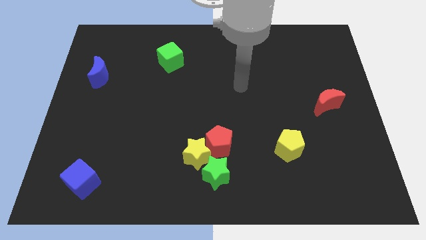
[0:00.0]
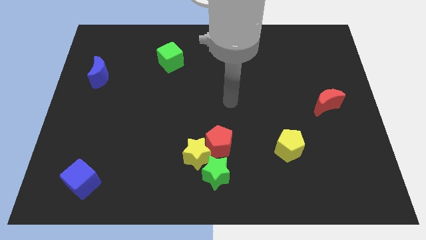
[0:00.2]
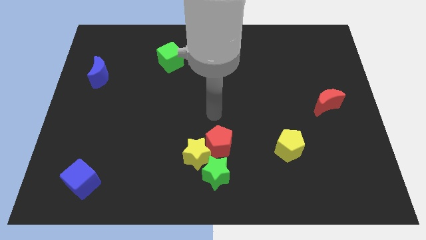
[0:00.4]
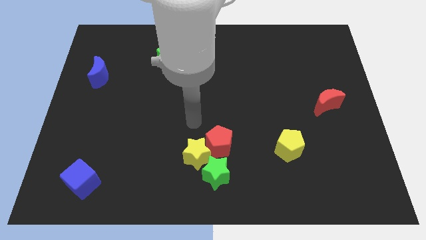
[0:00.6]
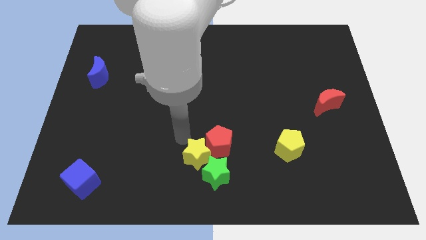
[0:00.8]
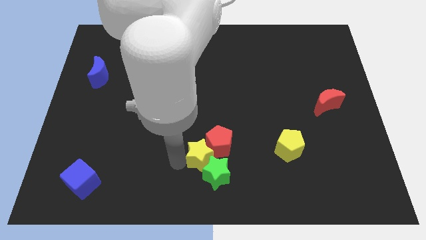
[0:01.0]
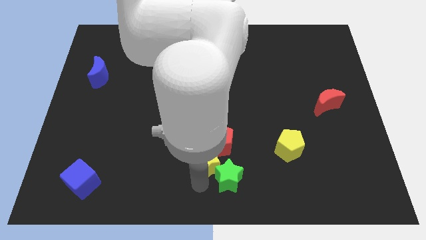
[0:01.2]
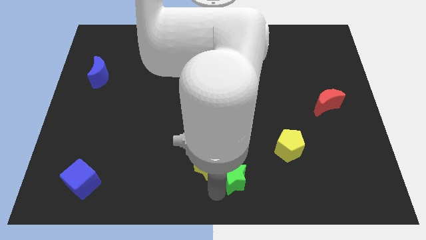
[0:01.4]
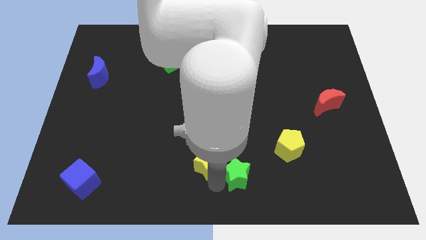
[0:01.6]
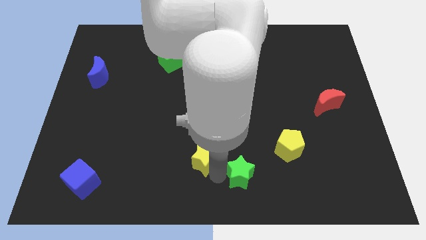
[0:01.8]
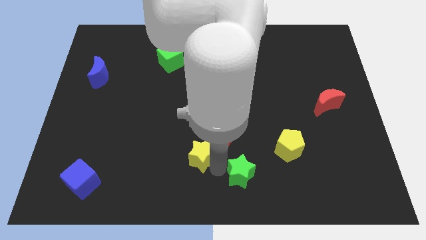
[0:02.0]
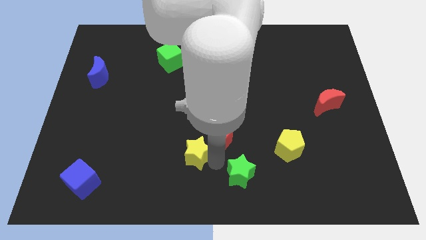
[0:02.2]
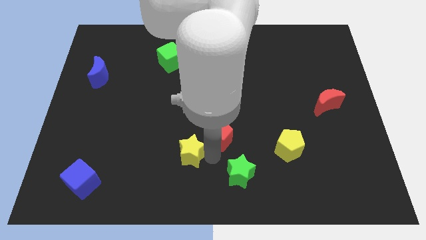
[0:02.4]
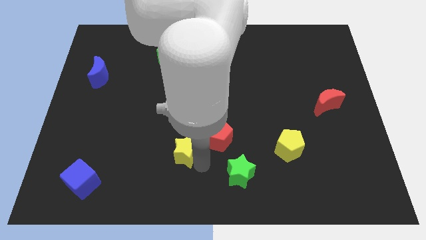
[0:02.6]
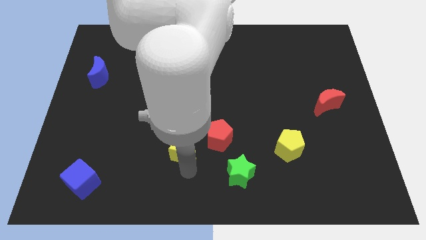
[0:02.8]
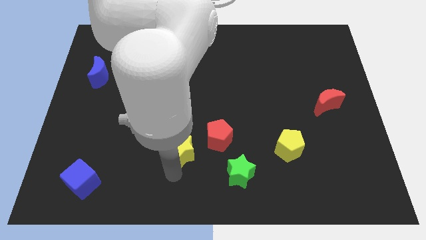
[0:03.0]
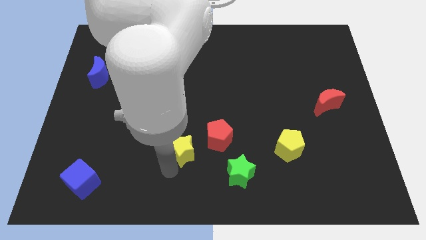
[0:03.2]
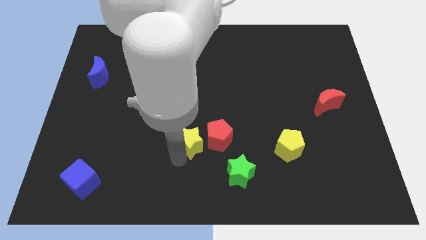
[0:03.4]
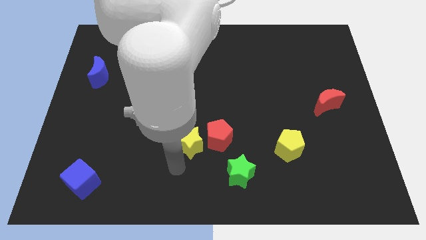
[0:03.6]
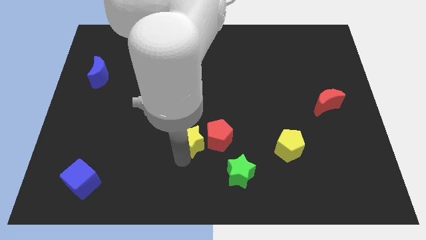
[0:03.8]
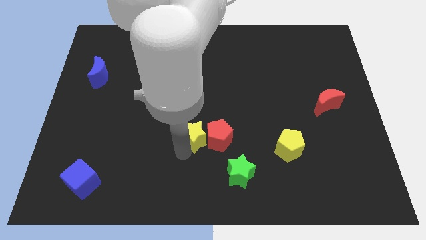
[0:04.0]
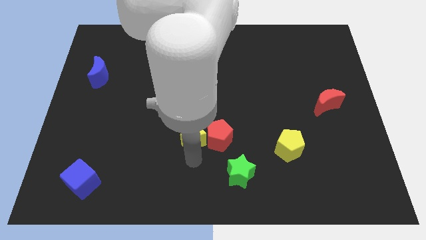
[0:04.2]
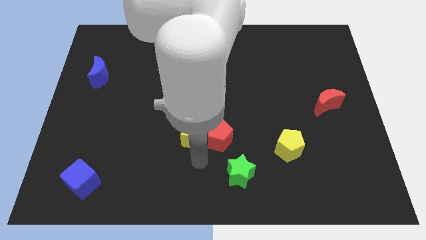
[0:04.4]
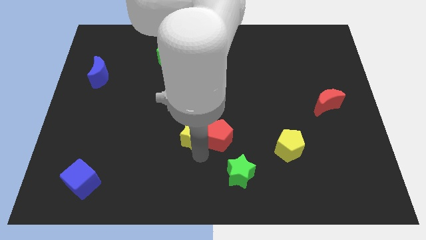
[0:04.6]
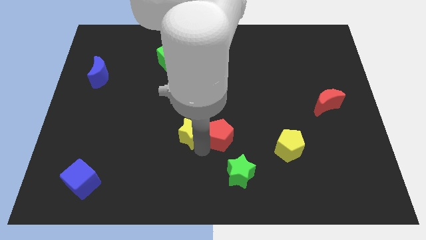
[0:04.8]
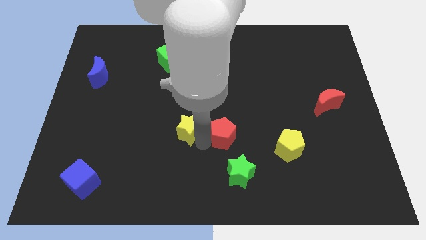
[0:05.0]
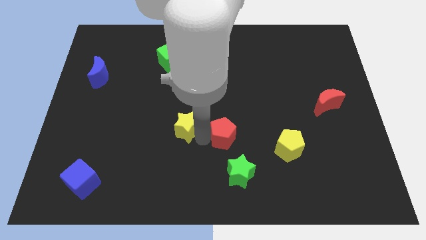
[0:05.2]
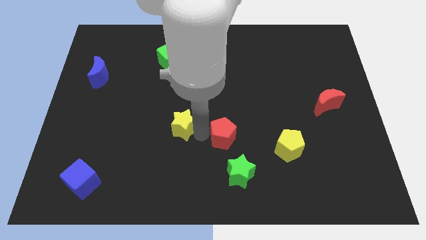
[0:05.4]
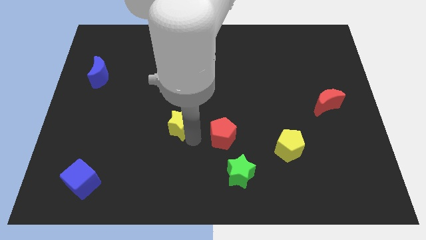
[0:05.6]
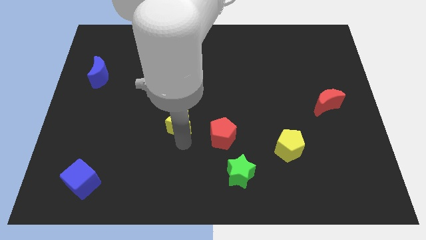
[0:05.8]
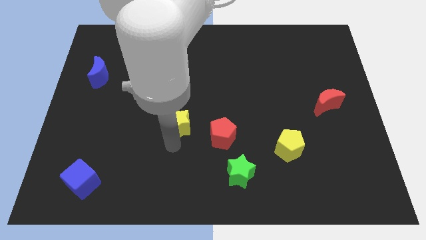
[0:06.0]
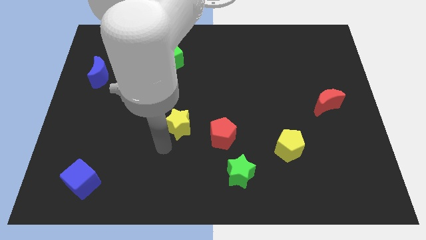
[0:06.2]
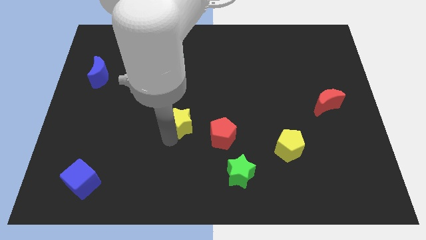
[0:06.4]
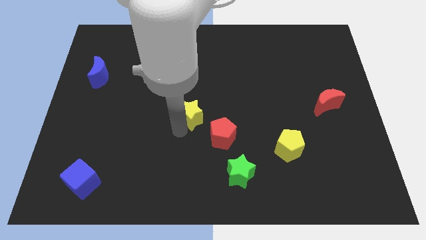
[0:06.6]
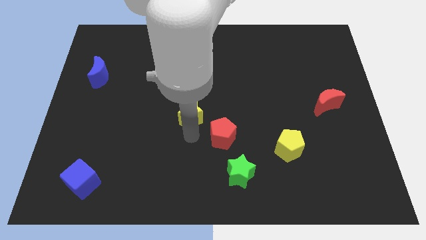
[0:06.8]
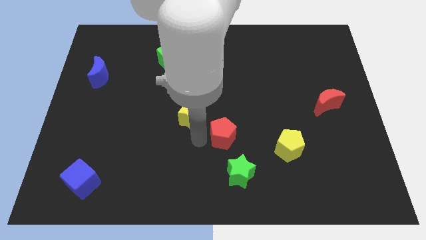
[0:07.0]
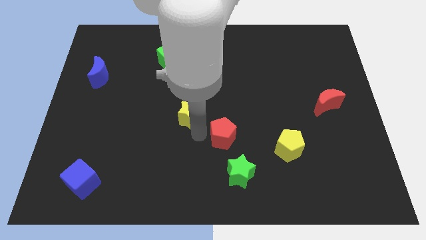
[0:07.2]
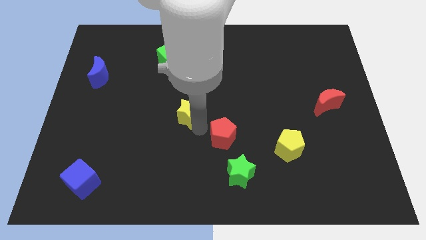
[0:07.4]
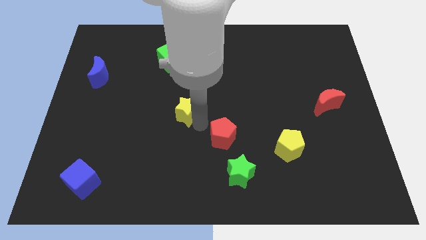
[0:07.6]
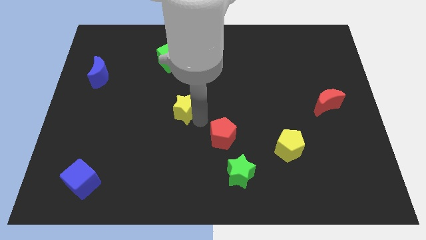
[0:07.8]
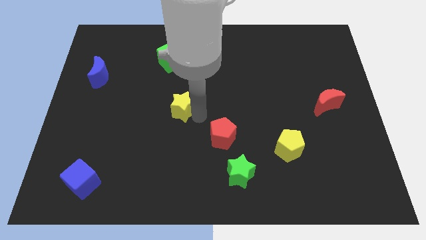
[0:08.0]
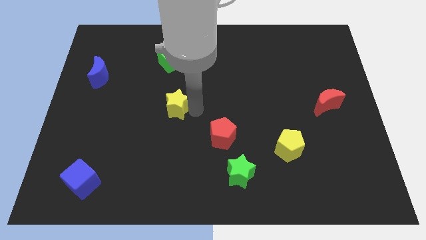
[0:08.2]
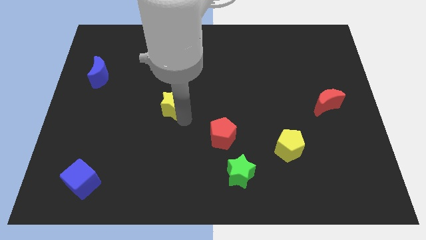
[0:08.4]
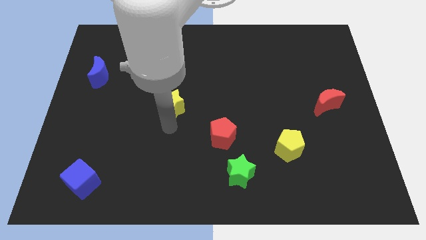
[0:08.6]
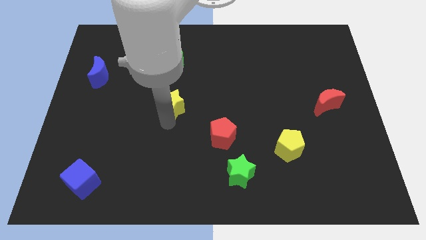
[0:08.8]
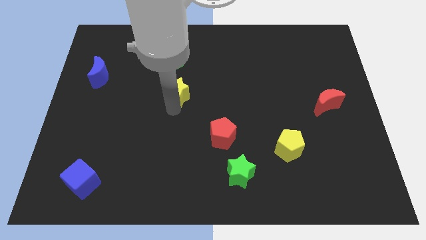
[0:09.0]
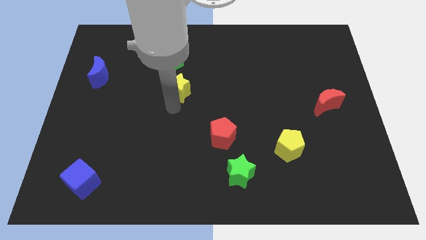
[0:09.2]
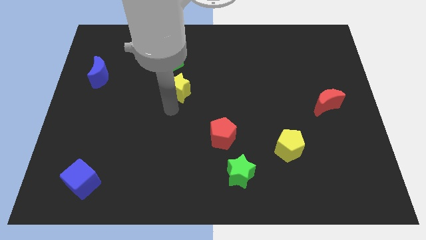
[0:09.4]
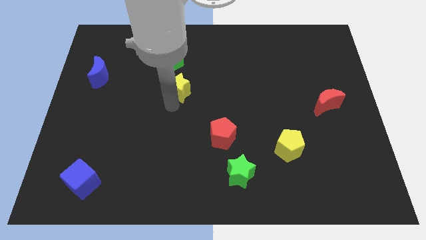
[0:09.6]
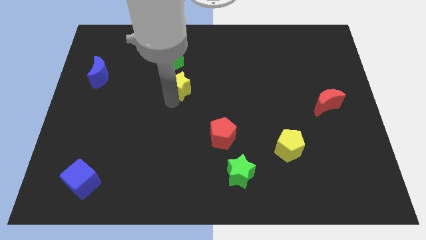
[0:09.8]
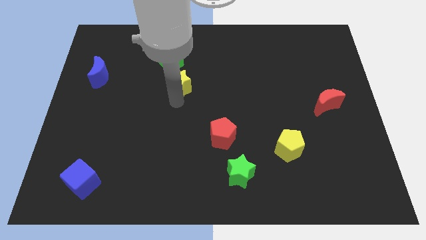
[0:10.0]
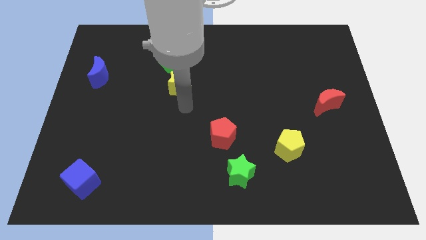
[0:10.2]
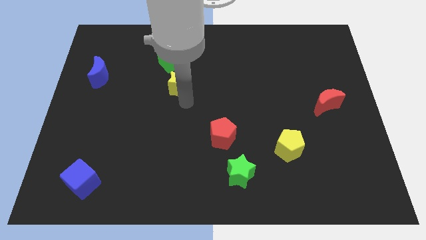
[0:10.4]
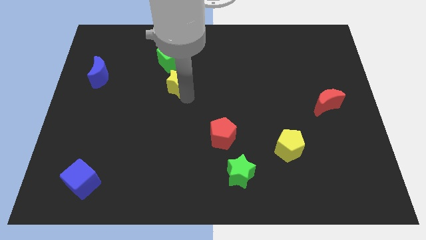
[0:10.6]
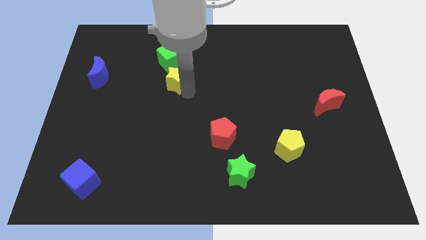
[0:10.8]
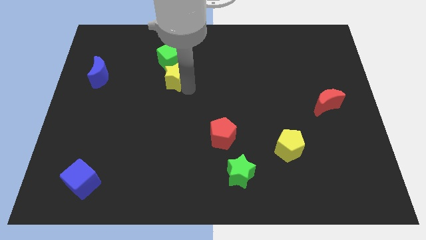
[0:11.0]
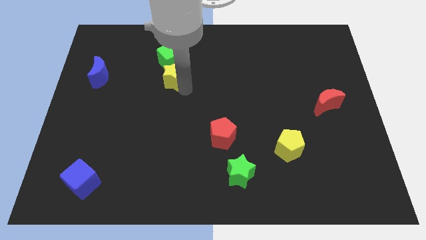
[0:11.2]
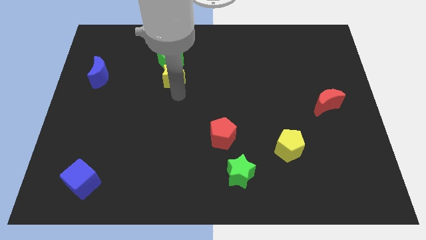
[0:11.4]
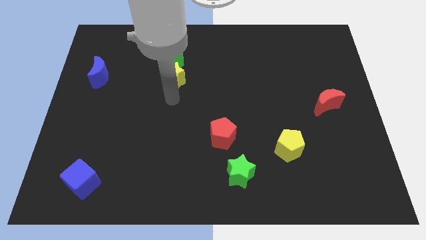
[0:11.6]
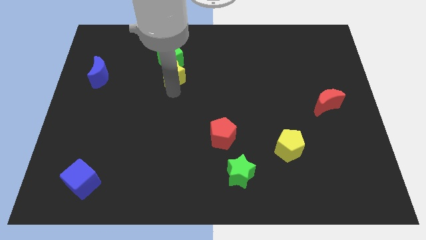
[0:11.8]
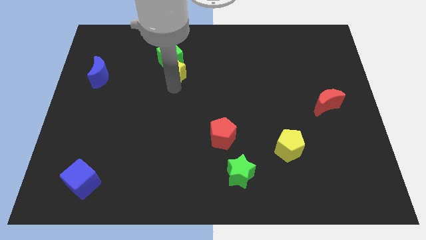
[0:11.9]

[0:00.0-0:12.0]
slide the yellow star towards the green cube

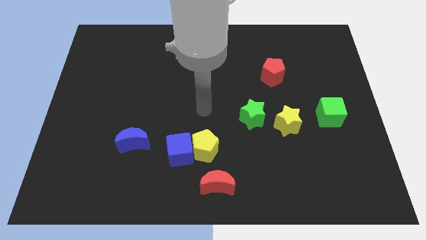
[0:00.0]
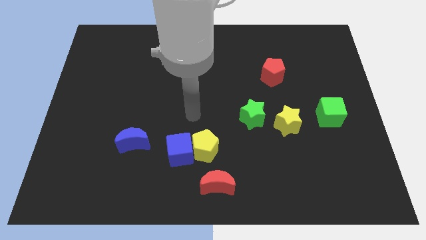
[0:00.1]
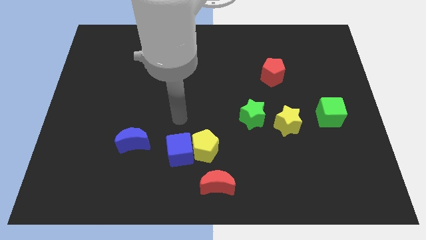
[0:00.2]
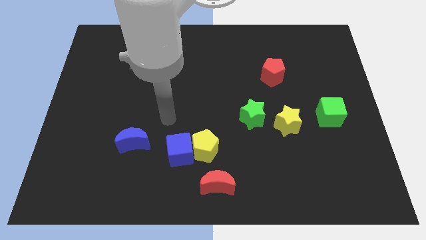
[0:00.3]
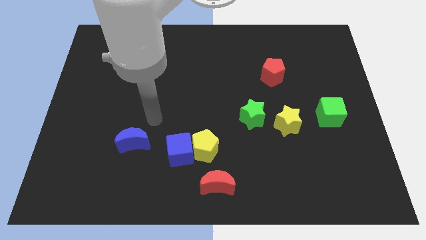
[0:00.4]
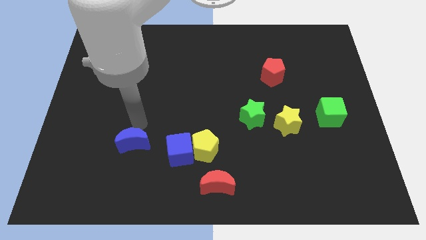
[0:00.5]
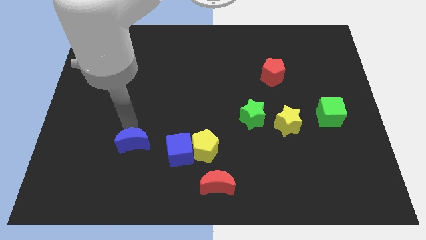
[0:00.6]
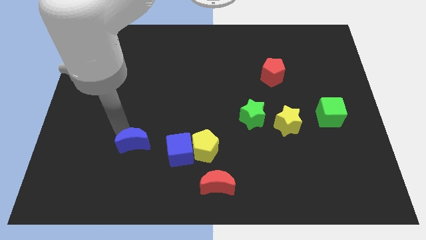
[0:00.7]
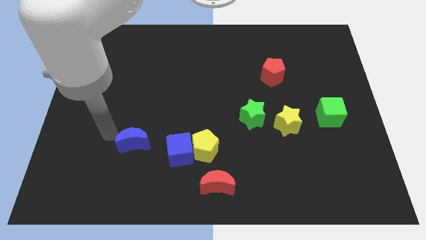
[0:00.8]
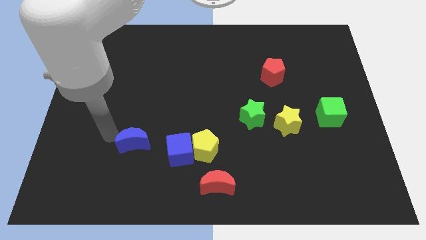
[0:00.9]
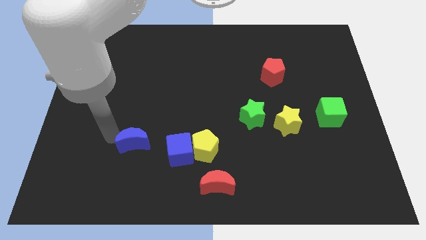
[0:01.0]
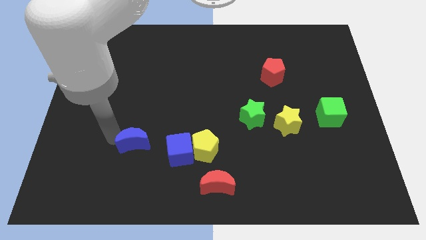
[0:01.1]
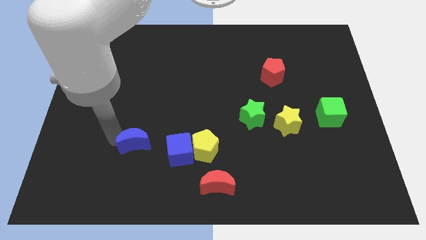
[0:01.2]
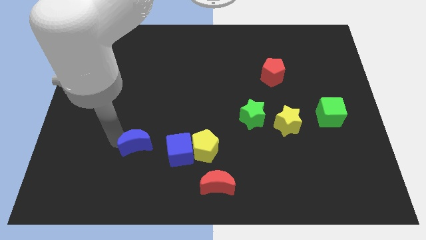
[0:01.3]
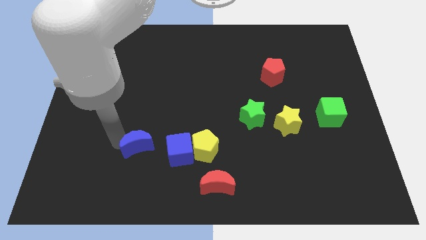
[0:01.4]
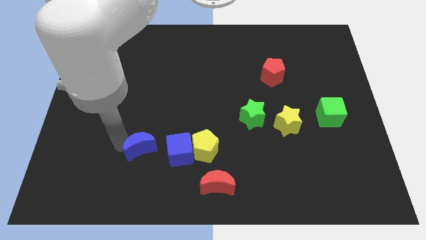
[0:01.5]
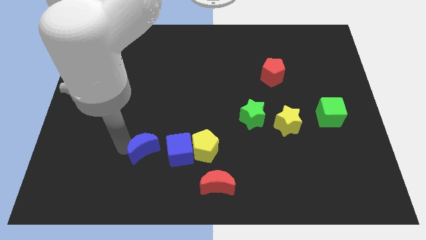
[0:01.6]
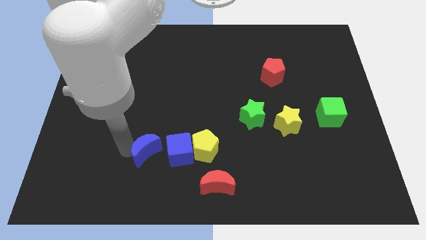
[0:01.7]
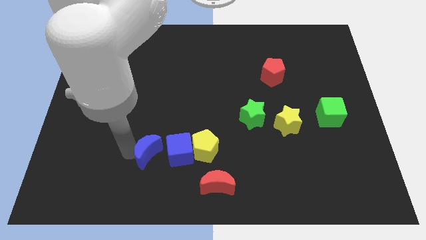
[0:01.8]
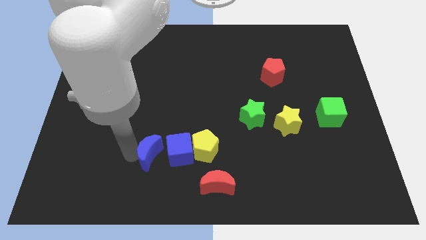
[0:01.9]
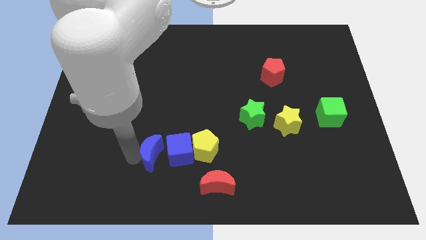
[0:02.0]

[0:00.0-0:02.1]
move the blue moon next to the blue cube
